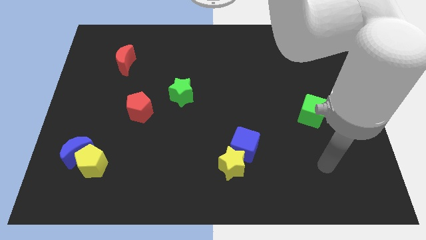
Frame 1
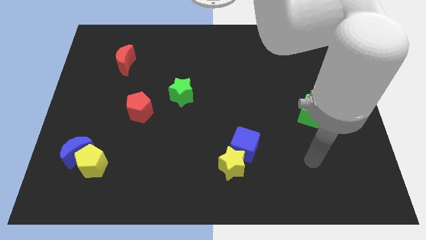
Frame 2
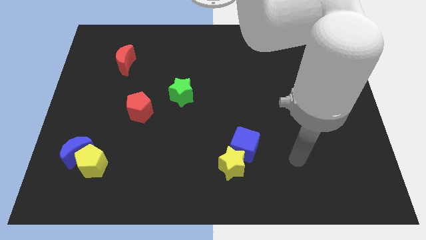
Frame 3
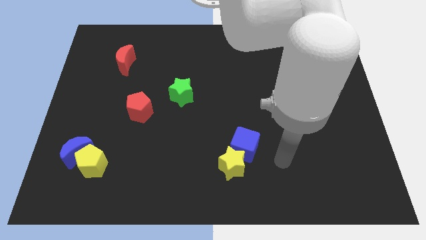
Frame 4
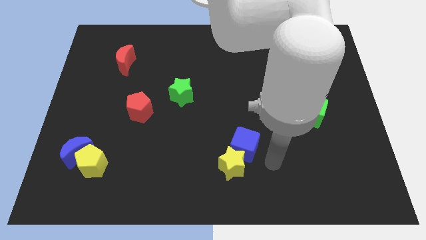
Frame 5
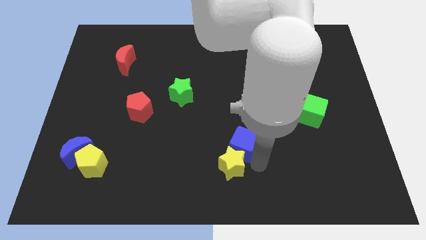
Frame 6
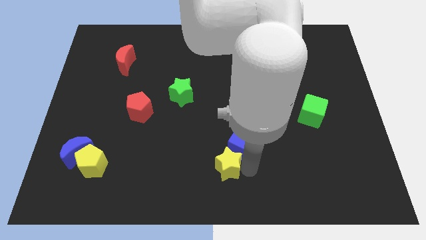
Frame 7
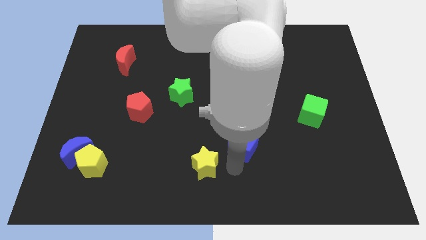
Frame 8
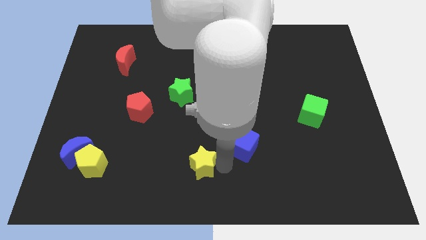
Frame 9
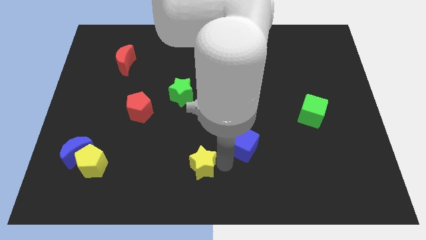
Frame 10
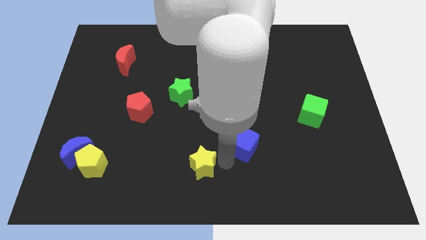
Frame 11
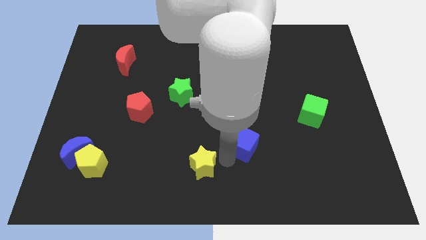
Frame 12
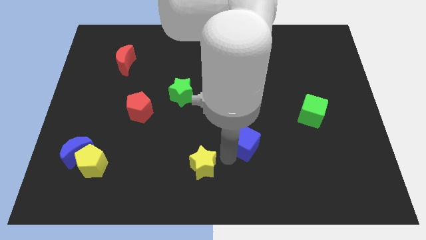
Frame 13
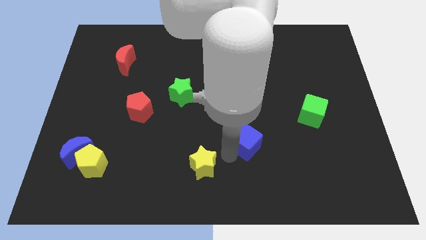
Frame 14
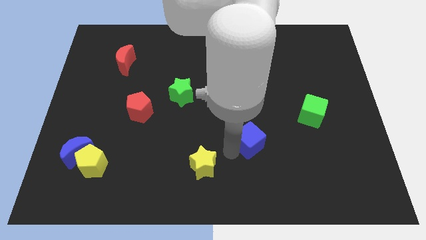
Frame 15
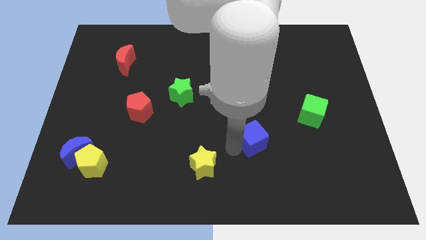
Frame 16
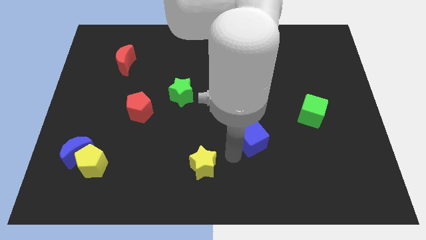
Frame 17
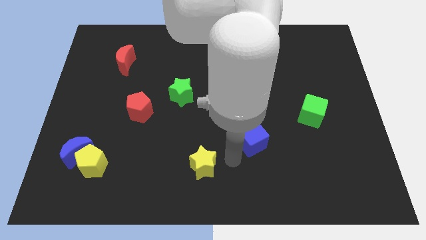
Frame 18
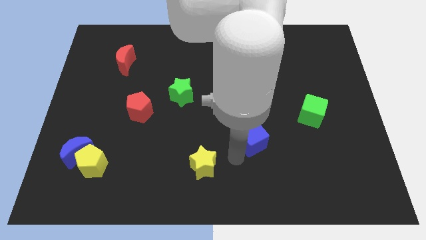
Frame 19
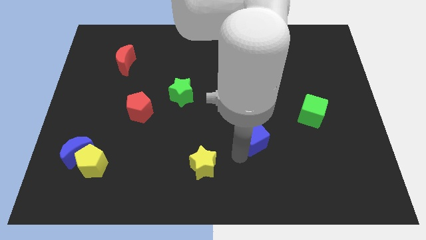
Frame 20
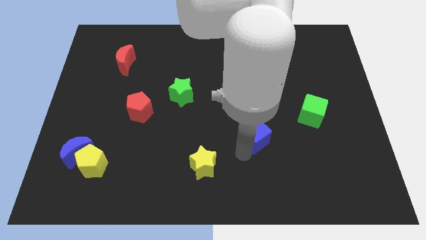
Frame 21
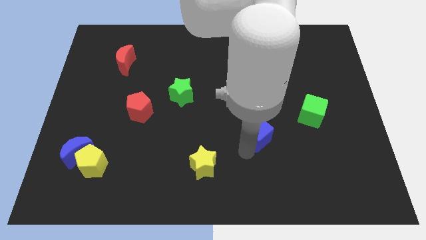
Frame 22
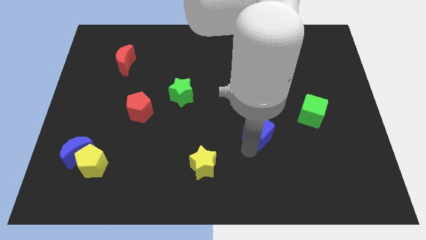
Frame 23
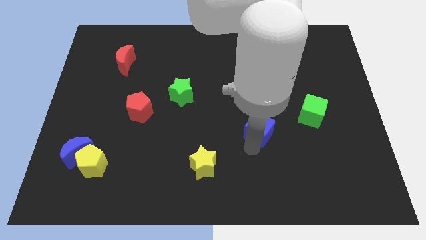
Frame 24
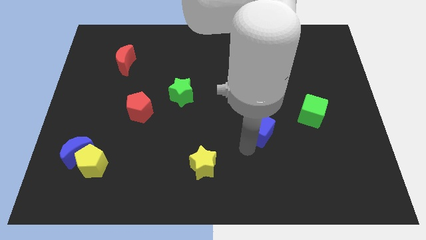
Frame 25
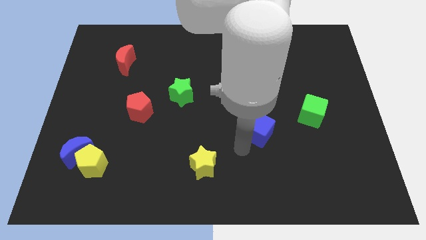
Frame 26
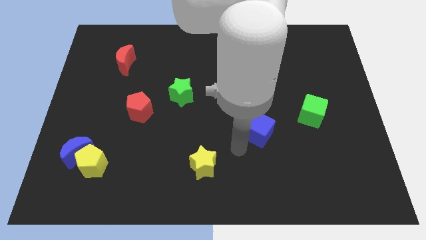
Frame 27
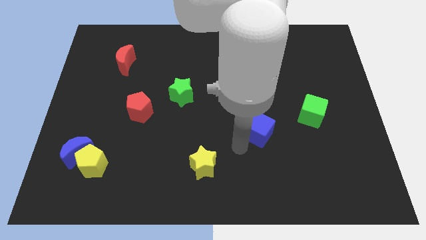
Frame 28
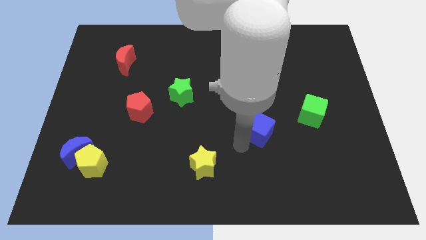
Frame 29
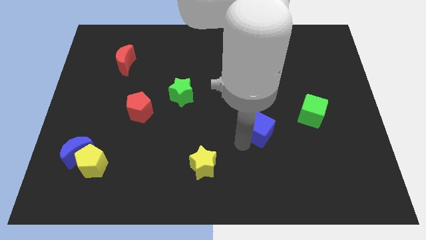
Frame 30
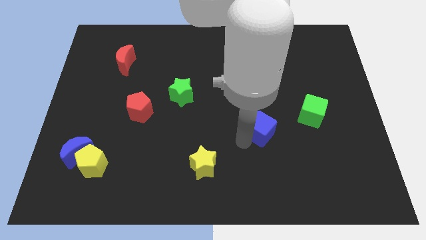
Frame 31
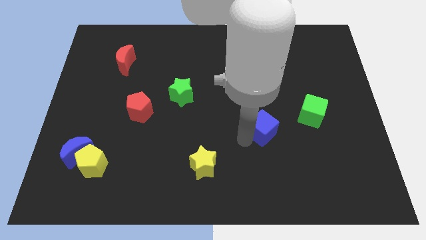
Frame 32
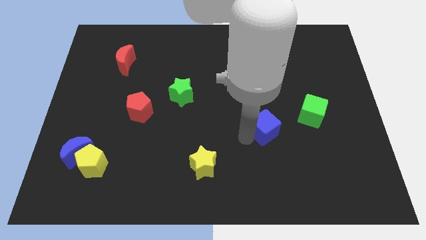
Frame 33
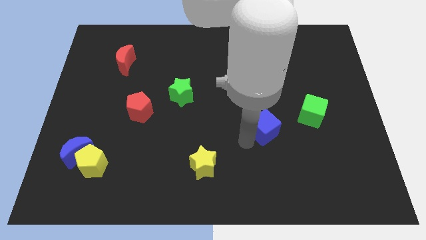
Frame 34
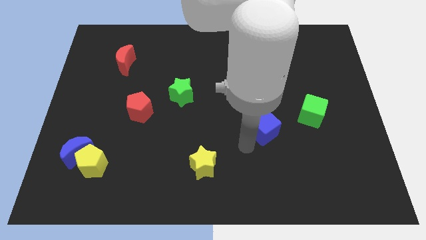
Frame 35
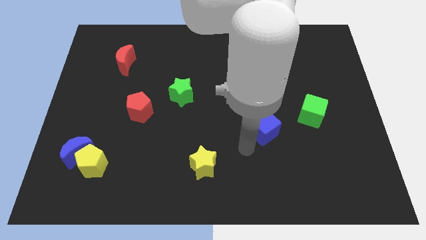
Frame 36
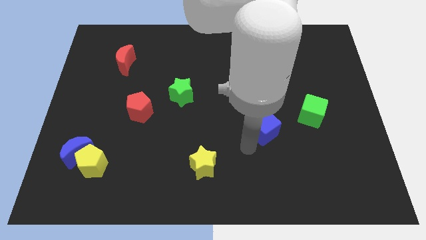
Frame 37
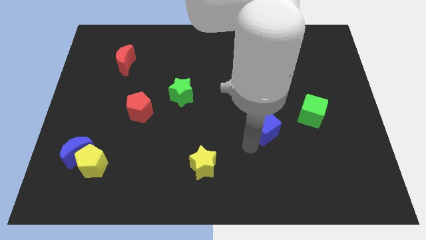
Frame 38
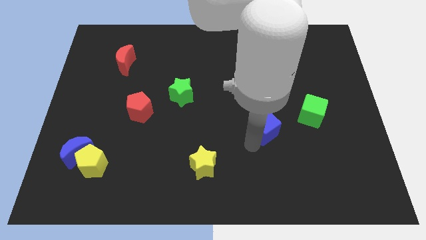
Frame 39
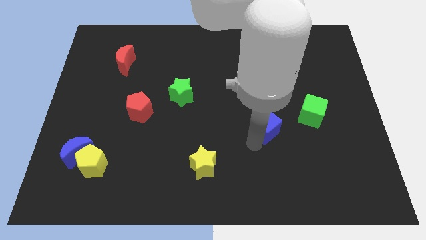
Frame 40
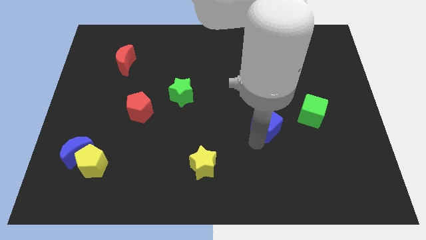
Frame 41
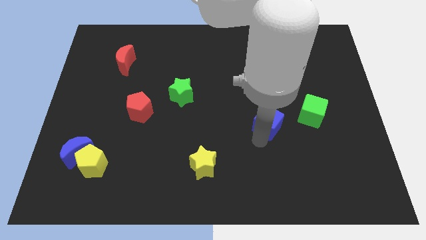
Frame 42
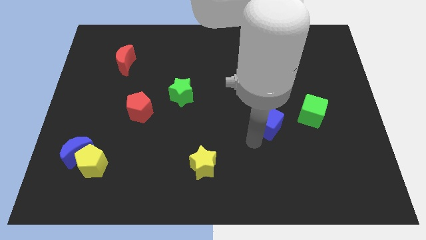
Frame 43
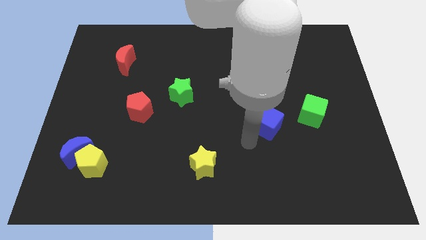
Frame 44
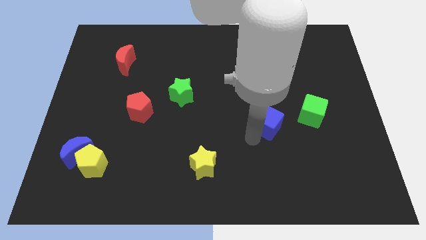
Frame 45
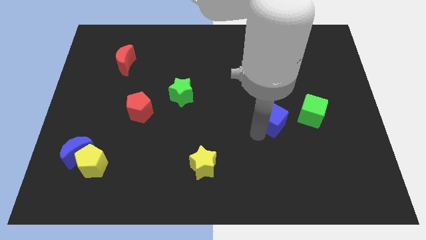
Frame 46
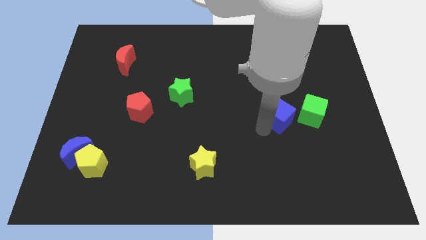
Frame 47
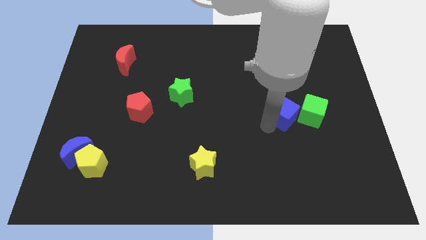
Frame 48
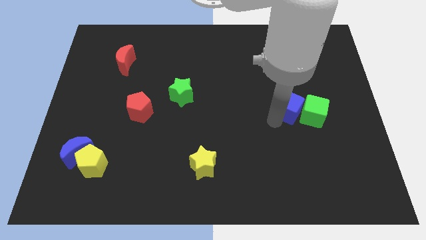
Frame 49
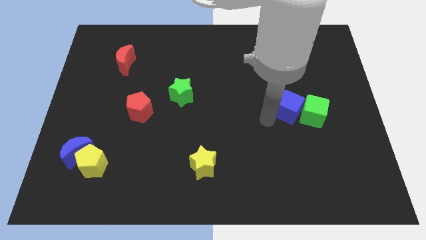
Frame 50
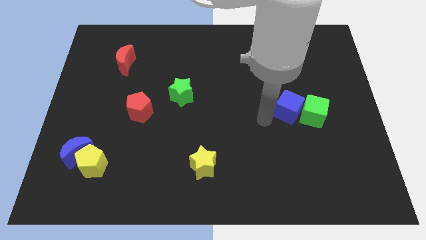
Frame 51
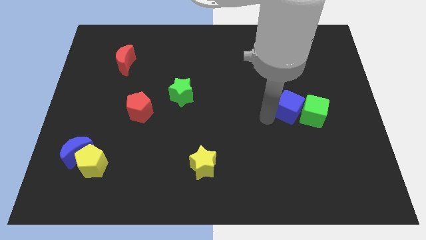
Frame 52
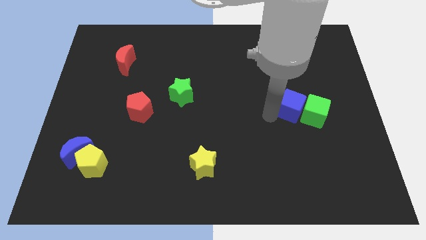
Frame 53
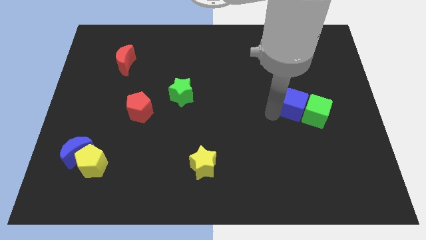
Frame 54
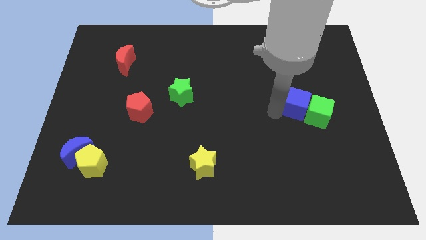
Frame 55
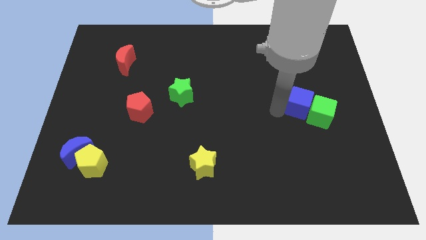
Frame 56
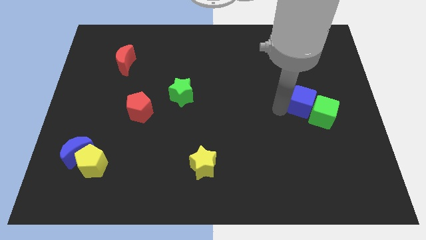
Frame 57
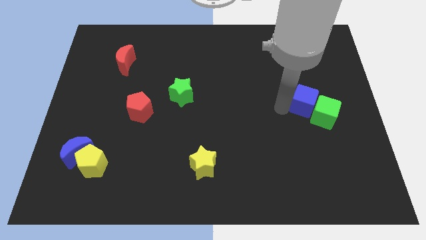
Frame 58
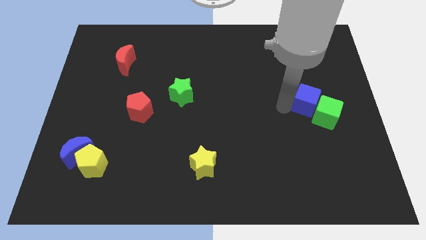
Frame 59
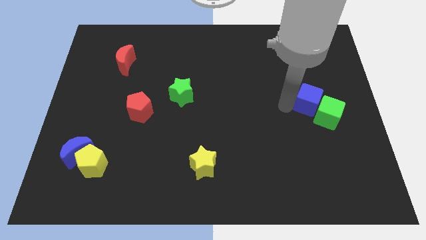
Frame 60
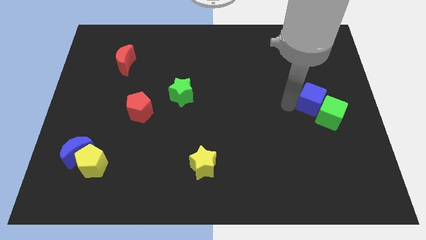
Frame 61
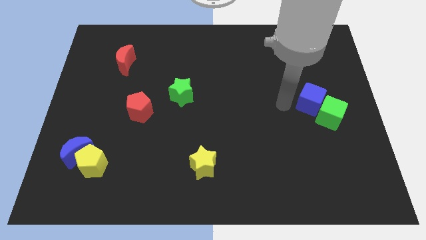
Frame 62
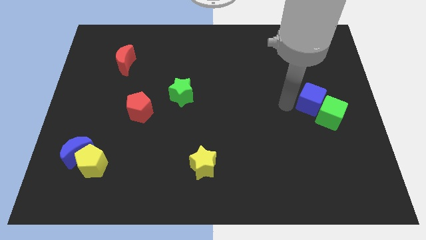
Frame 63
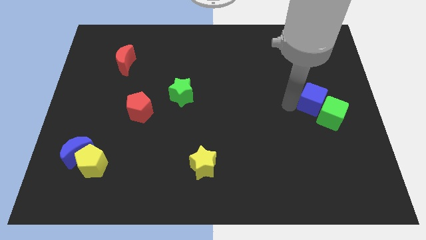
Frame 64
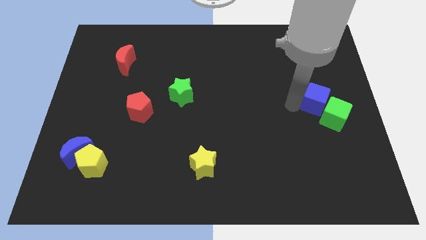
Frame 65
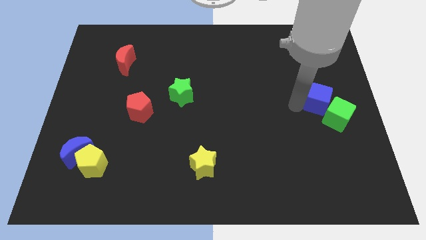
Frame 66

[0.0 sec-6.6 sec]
slide the blue cube to the center right
